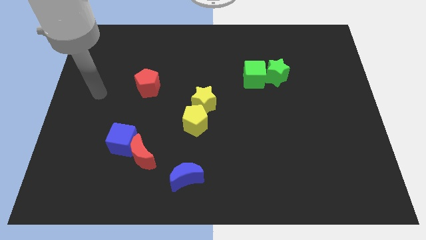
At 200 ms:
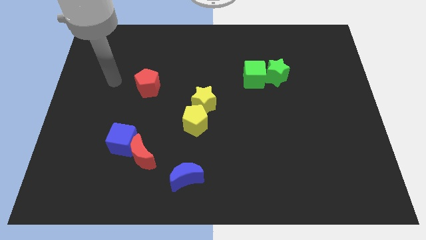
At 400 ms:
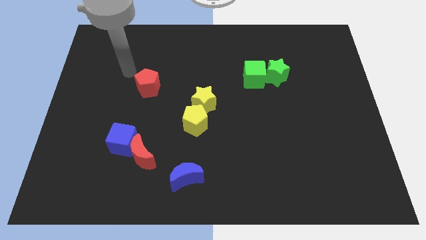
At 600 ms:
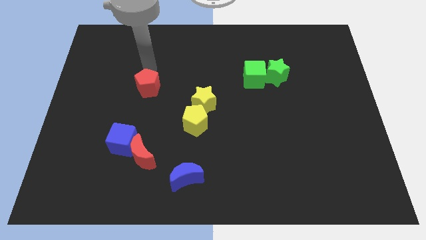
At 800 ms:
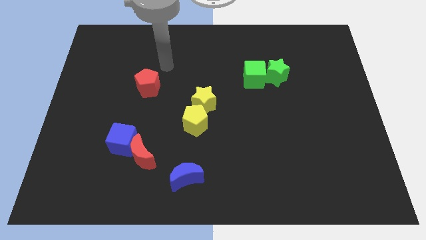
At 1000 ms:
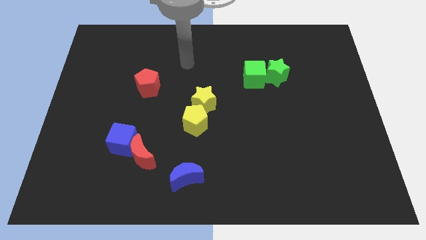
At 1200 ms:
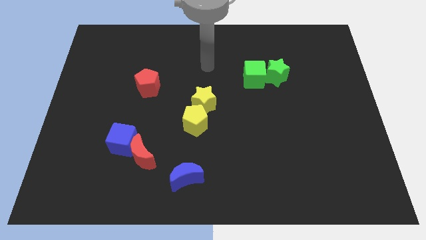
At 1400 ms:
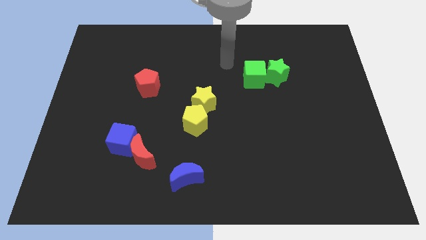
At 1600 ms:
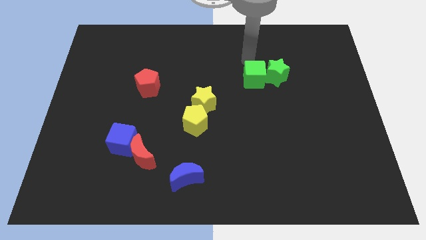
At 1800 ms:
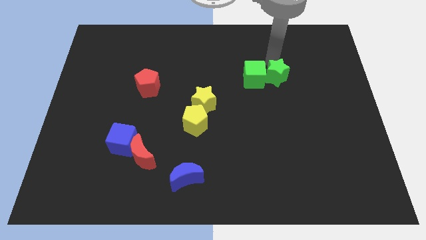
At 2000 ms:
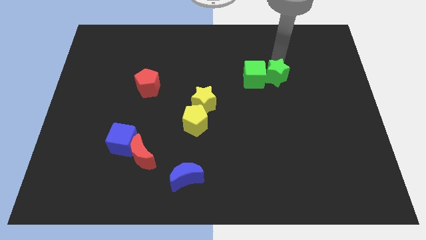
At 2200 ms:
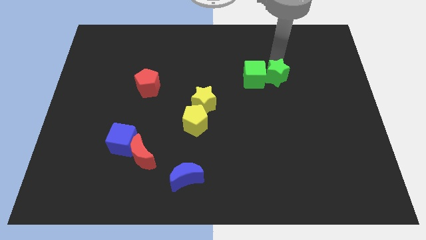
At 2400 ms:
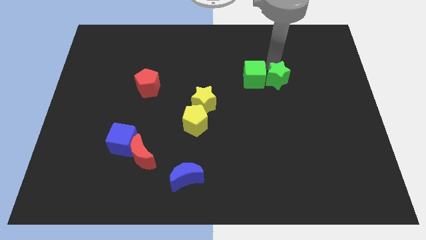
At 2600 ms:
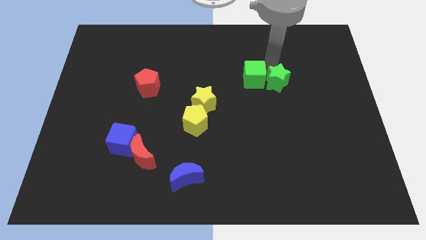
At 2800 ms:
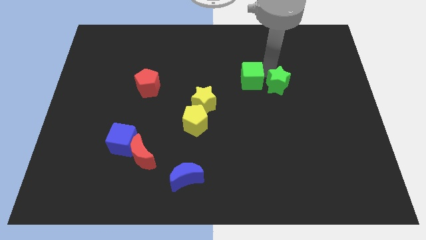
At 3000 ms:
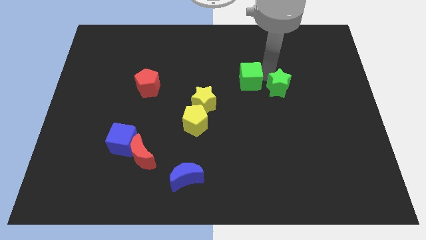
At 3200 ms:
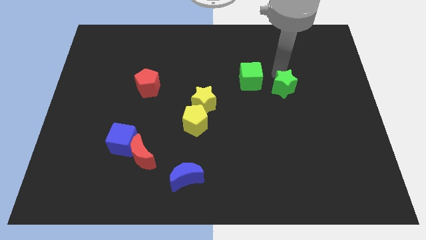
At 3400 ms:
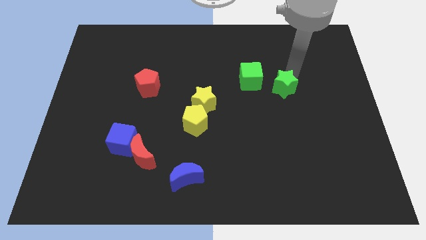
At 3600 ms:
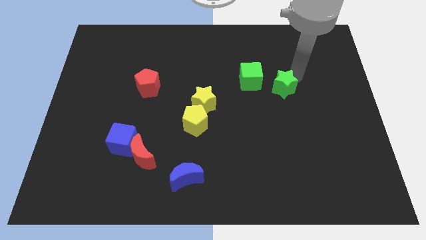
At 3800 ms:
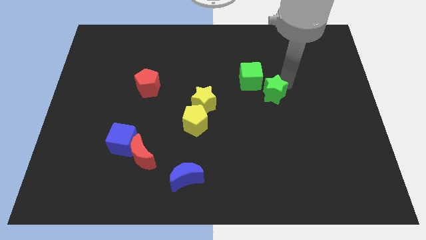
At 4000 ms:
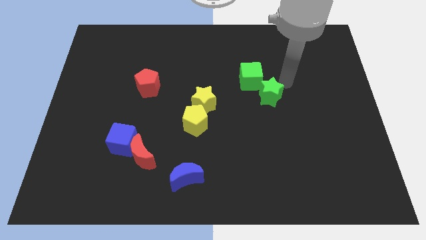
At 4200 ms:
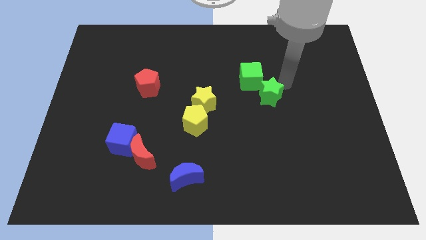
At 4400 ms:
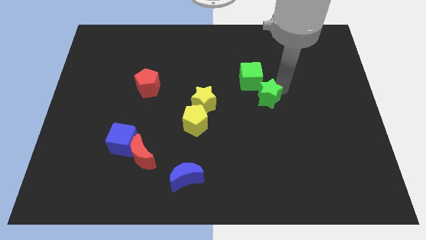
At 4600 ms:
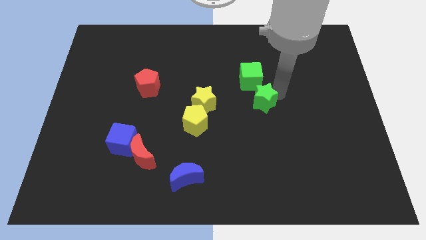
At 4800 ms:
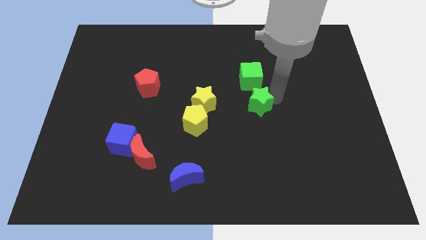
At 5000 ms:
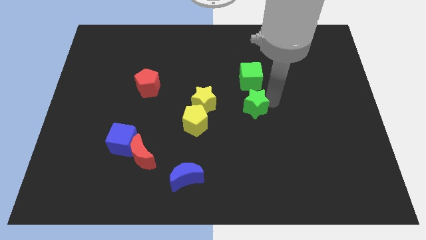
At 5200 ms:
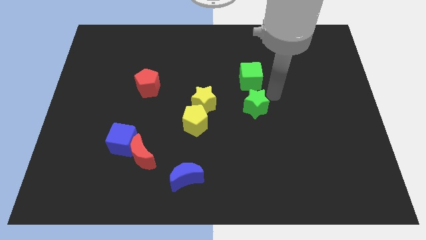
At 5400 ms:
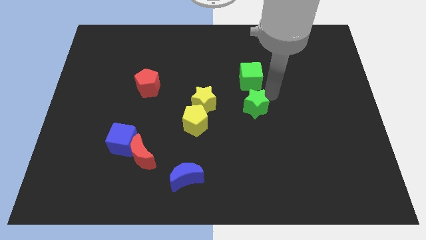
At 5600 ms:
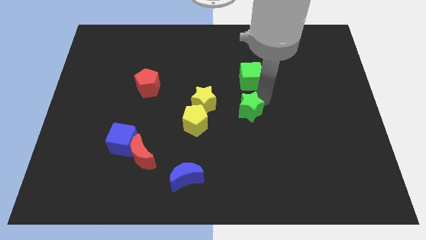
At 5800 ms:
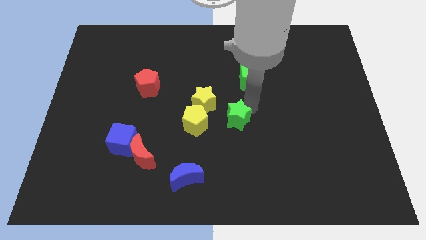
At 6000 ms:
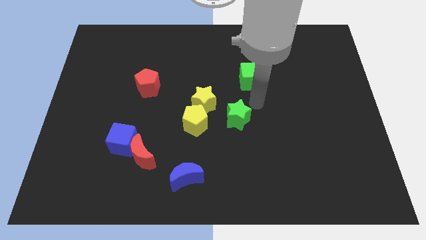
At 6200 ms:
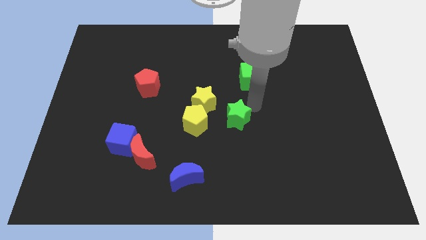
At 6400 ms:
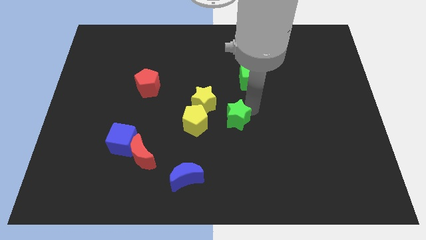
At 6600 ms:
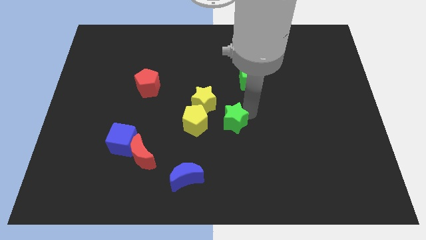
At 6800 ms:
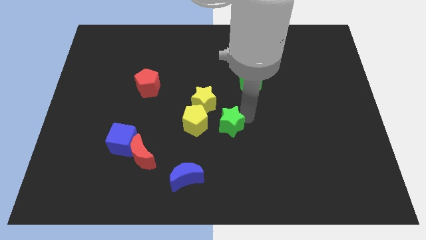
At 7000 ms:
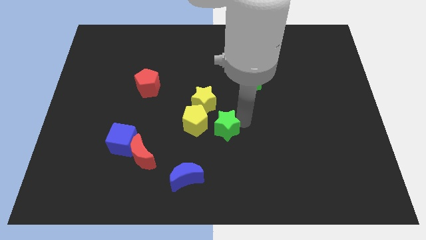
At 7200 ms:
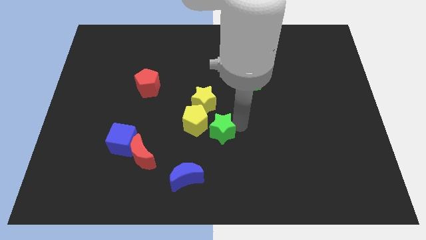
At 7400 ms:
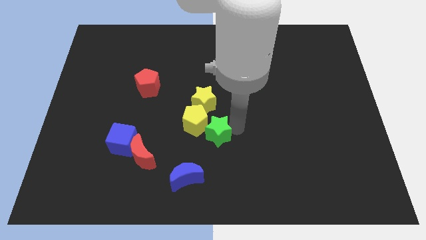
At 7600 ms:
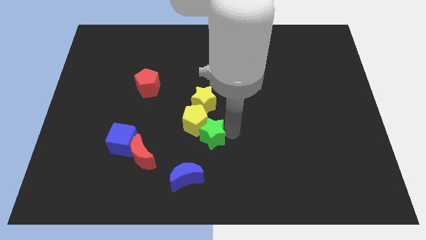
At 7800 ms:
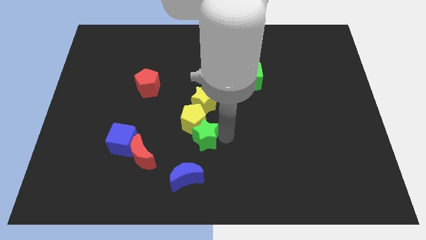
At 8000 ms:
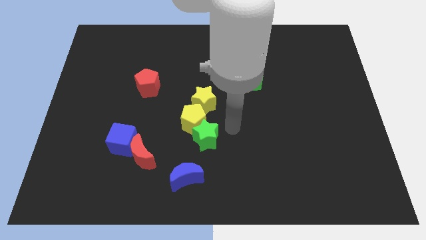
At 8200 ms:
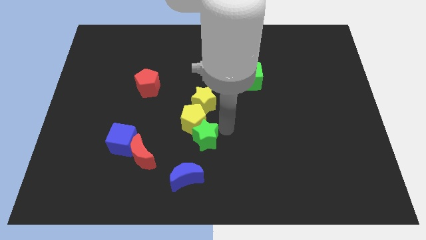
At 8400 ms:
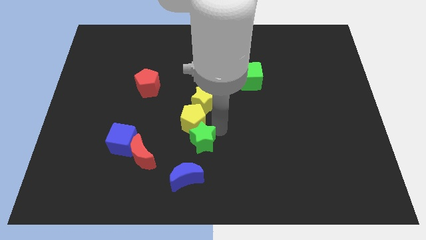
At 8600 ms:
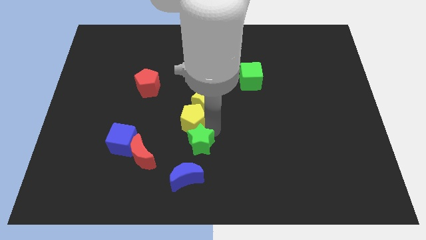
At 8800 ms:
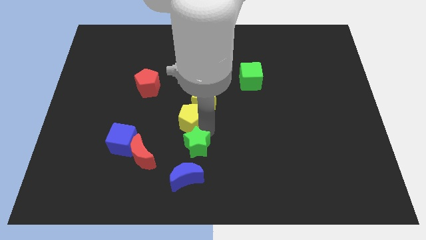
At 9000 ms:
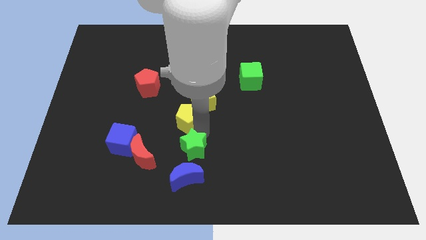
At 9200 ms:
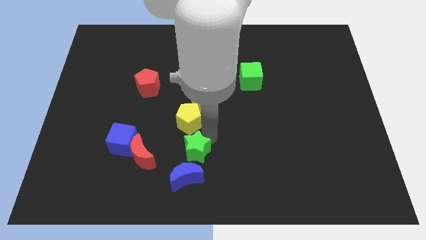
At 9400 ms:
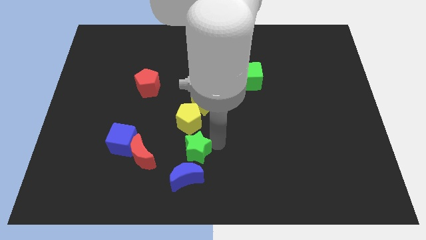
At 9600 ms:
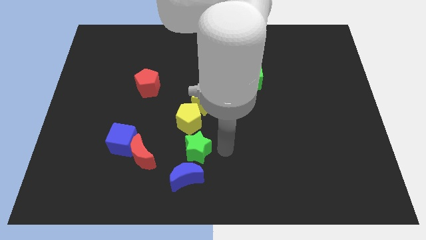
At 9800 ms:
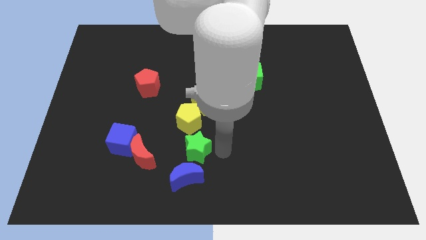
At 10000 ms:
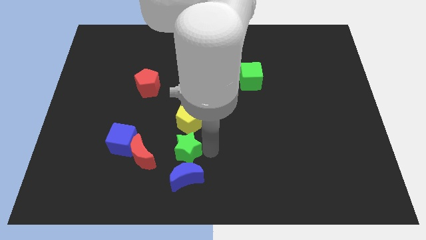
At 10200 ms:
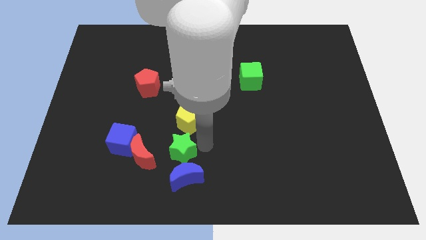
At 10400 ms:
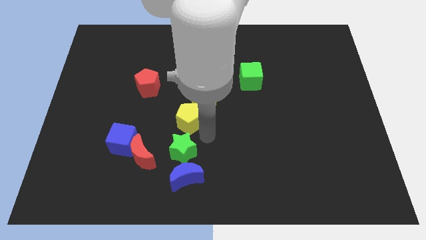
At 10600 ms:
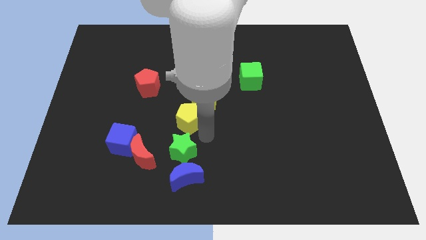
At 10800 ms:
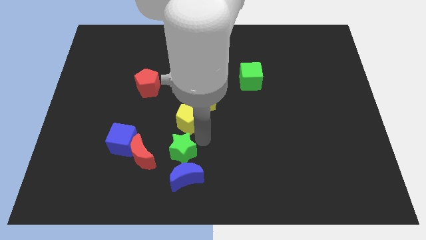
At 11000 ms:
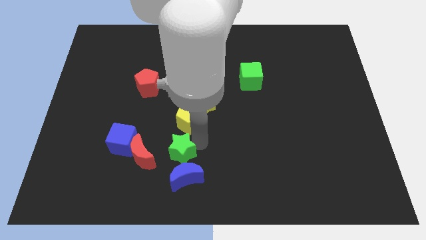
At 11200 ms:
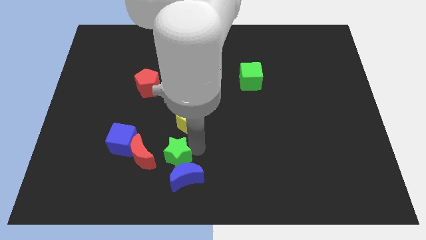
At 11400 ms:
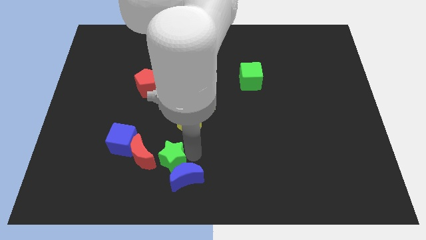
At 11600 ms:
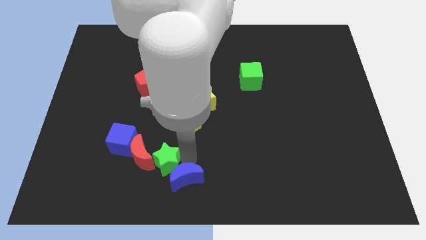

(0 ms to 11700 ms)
move the green star diagonally down and to the right of the blue cube

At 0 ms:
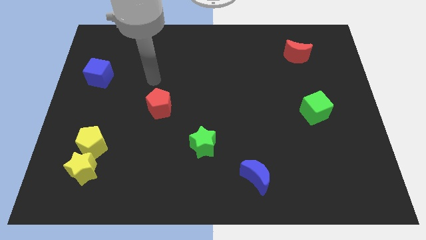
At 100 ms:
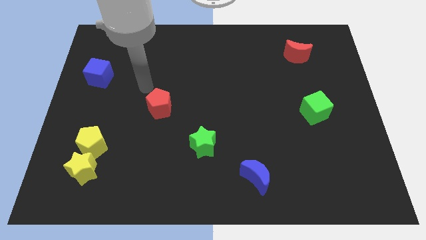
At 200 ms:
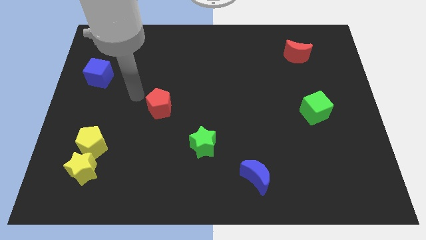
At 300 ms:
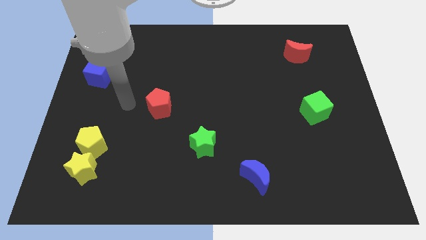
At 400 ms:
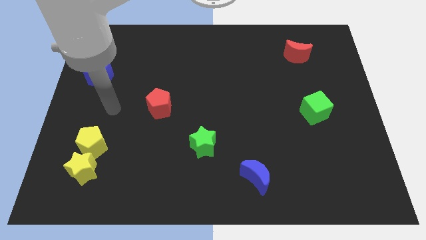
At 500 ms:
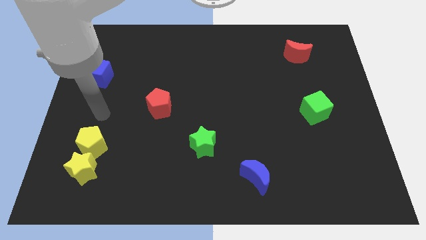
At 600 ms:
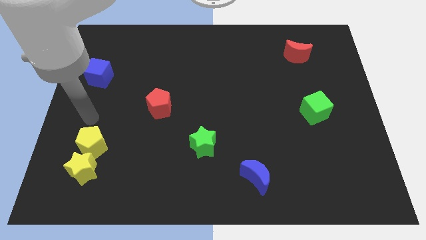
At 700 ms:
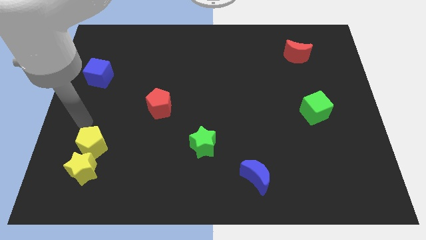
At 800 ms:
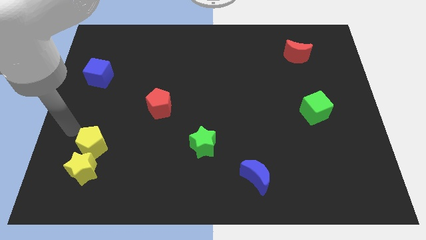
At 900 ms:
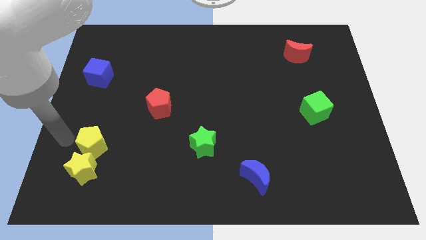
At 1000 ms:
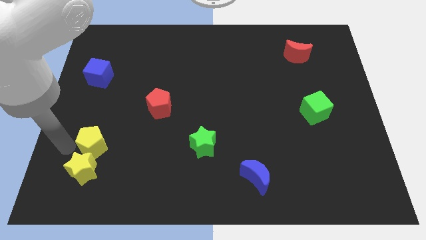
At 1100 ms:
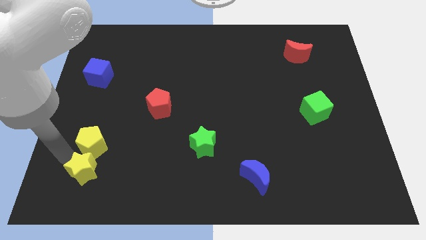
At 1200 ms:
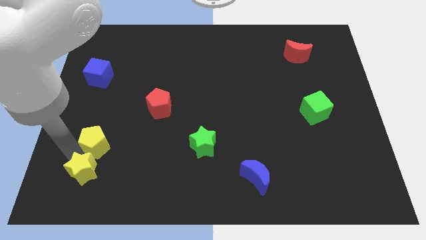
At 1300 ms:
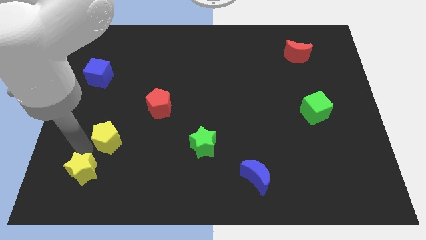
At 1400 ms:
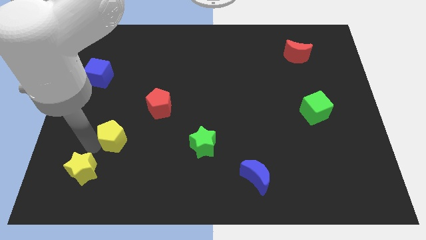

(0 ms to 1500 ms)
slide the yellow pentagon diagonally down and to the left of the red pentagon
